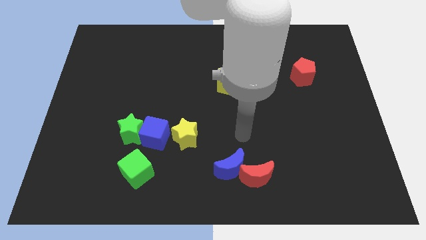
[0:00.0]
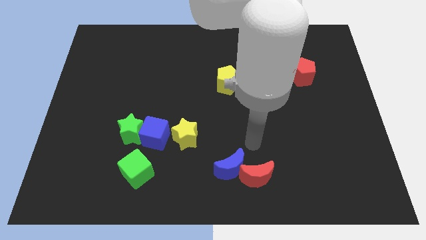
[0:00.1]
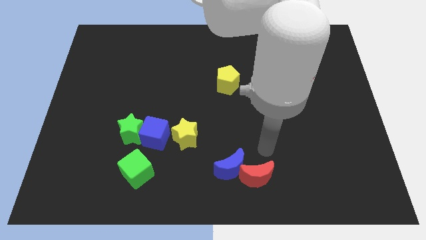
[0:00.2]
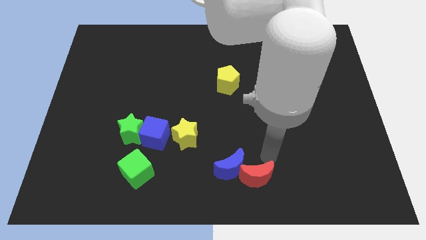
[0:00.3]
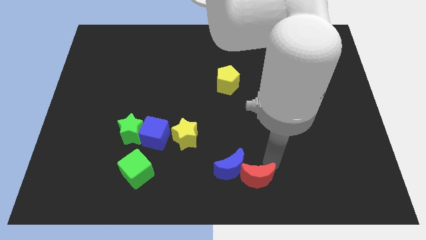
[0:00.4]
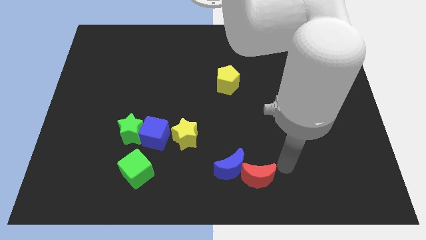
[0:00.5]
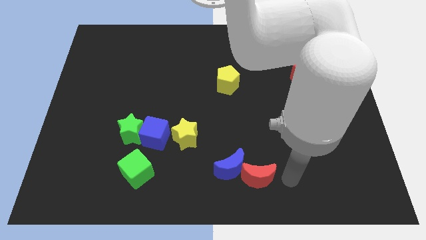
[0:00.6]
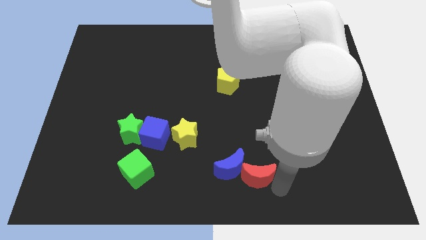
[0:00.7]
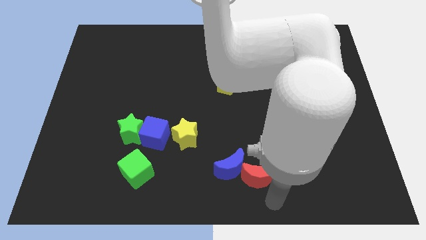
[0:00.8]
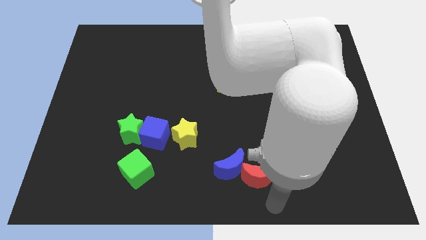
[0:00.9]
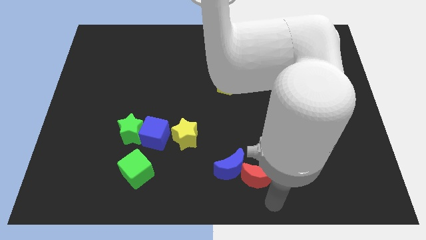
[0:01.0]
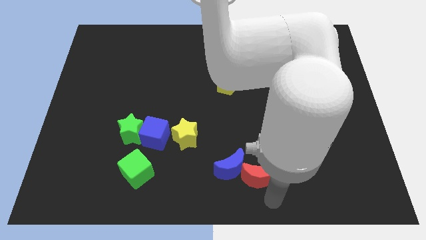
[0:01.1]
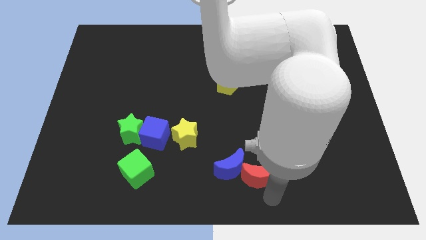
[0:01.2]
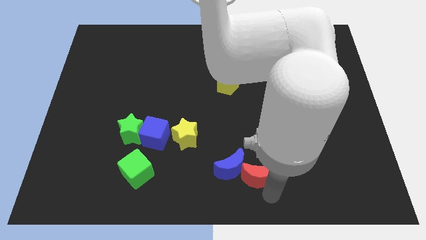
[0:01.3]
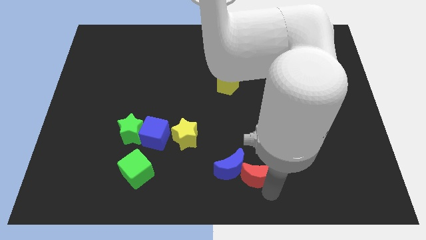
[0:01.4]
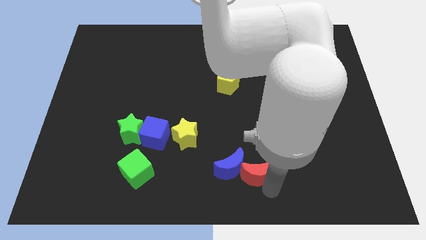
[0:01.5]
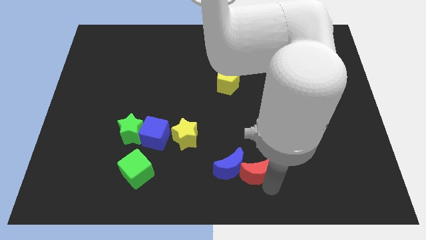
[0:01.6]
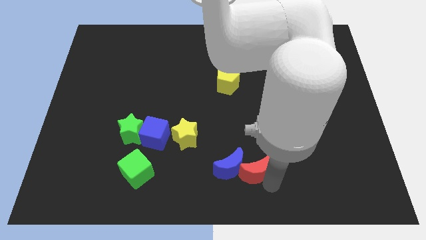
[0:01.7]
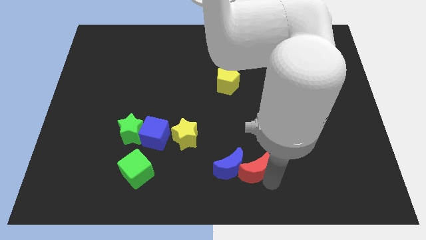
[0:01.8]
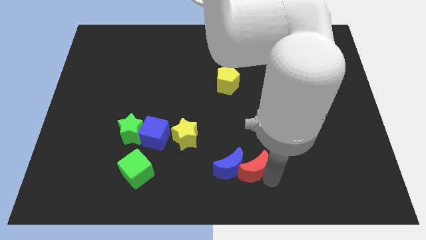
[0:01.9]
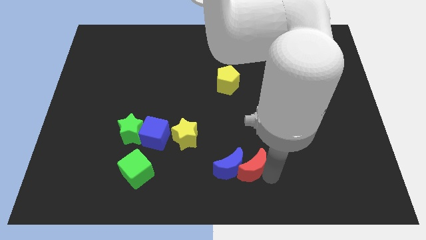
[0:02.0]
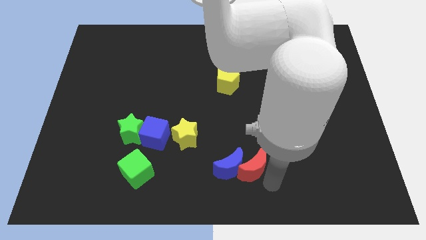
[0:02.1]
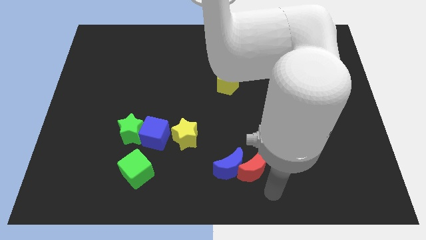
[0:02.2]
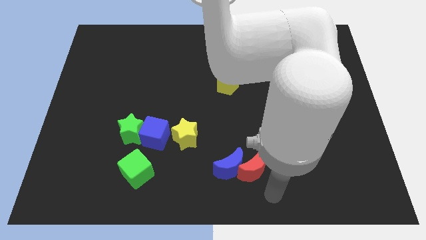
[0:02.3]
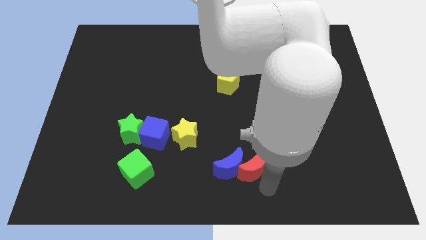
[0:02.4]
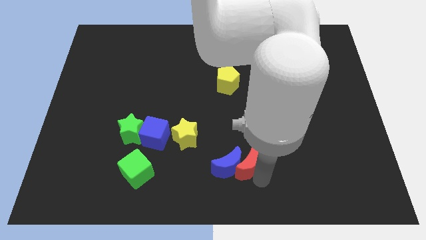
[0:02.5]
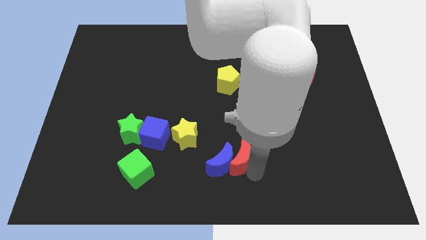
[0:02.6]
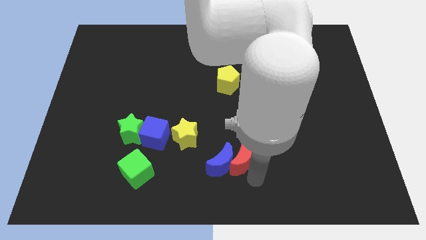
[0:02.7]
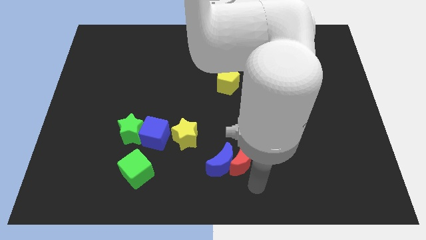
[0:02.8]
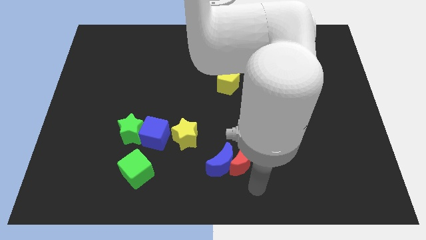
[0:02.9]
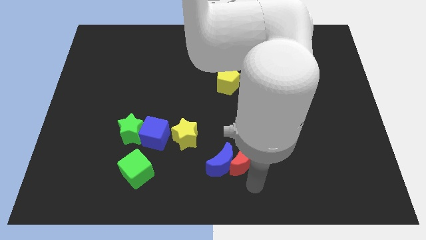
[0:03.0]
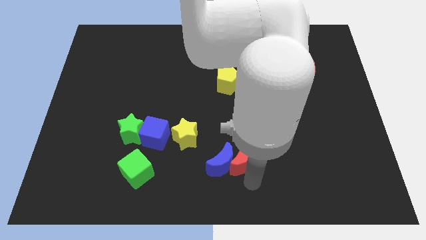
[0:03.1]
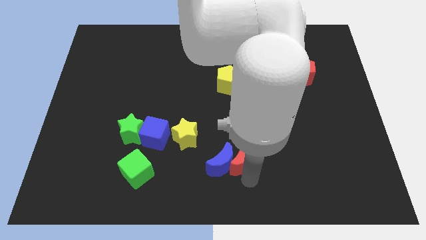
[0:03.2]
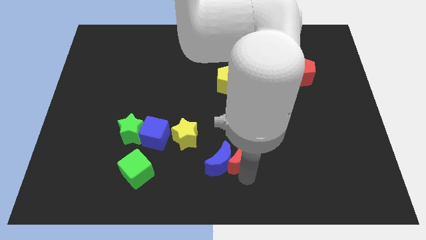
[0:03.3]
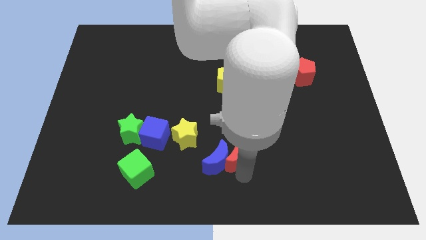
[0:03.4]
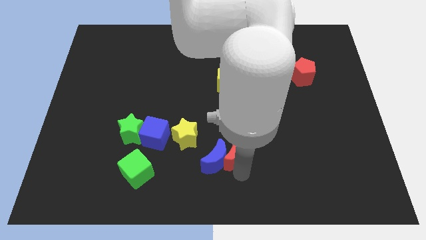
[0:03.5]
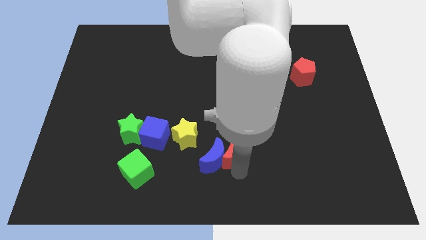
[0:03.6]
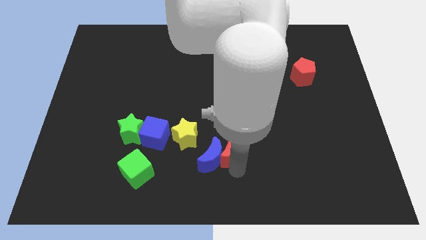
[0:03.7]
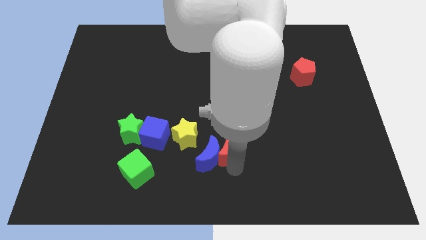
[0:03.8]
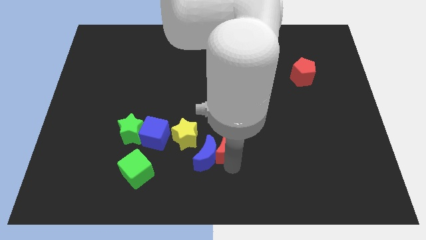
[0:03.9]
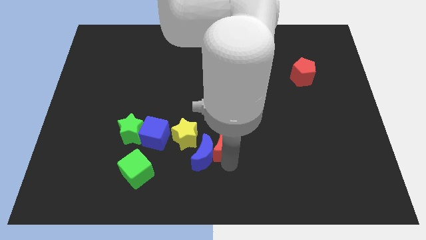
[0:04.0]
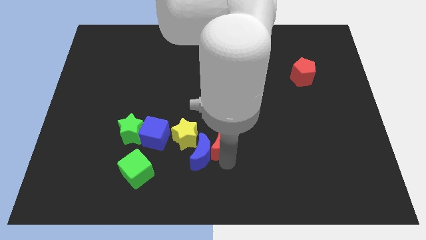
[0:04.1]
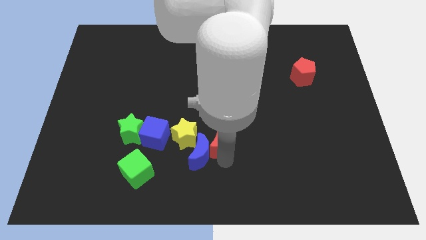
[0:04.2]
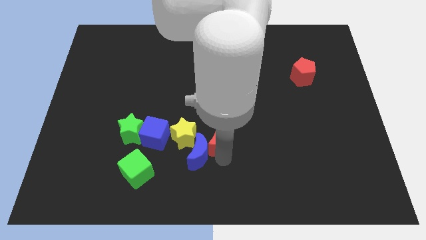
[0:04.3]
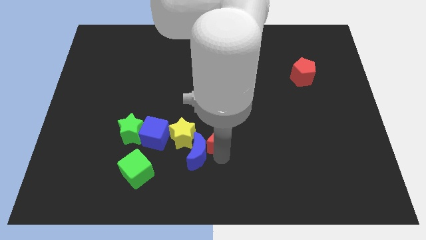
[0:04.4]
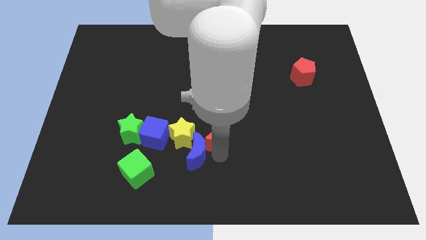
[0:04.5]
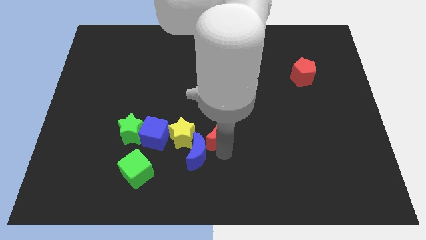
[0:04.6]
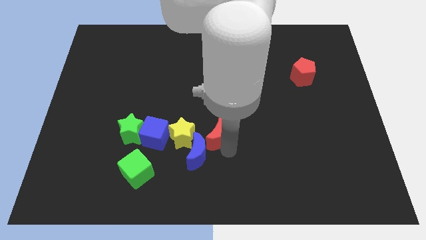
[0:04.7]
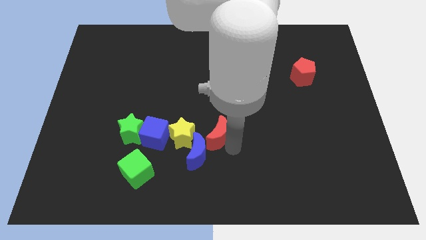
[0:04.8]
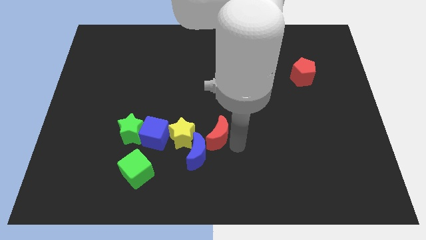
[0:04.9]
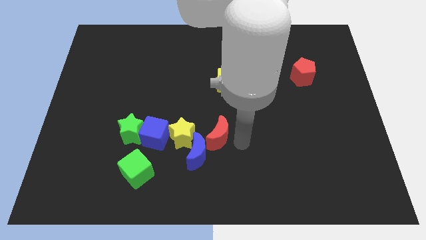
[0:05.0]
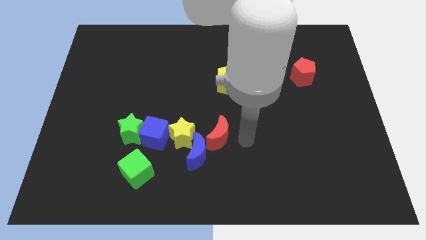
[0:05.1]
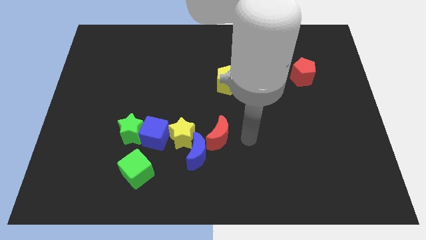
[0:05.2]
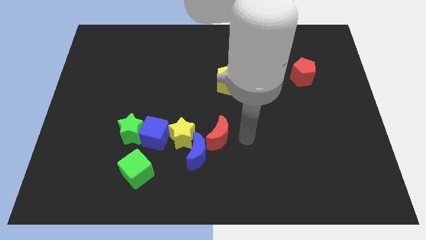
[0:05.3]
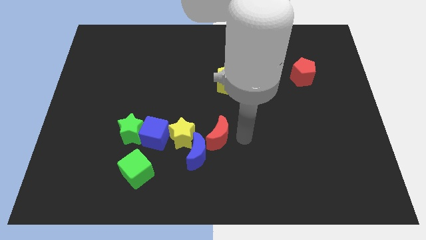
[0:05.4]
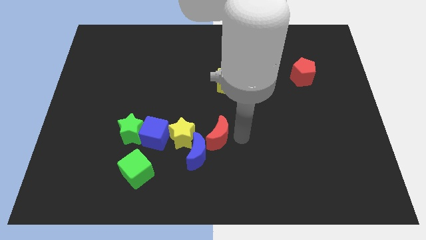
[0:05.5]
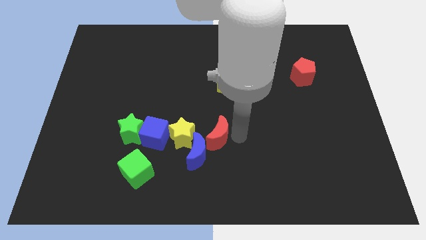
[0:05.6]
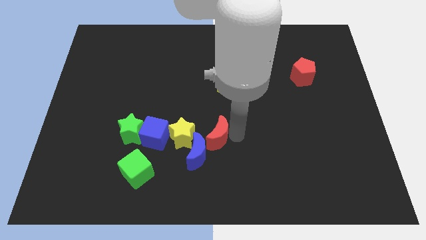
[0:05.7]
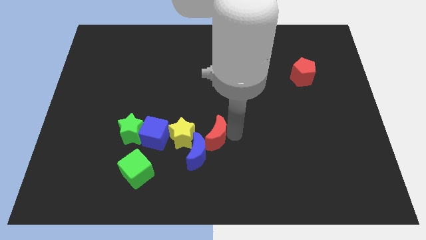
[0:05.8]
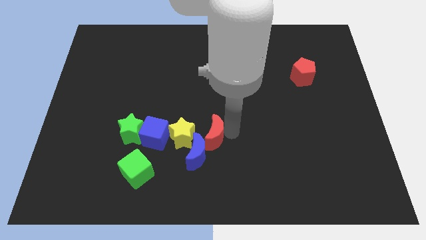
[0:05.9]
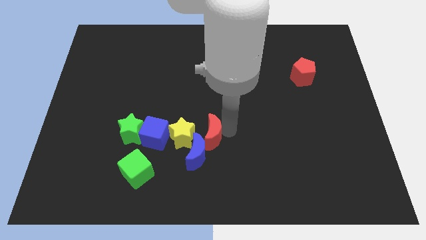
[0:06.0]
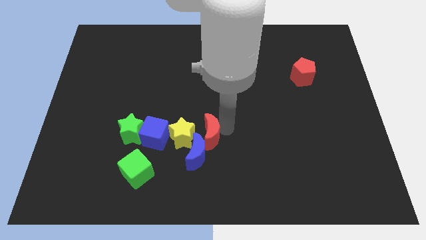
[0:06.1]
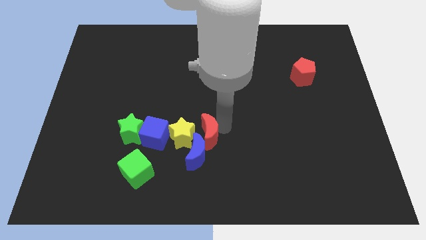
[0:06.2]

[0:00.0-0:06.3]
move the red moon towards the yellow star

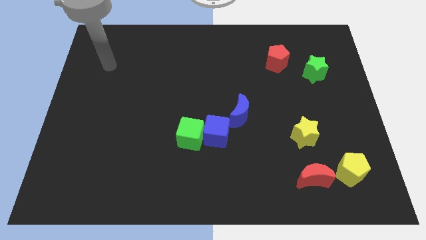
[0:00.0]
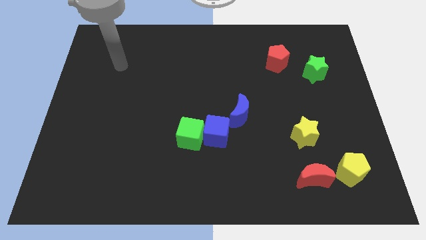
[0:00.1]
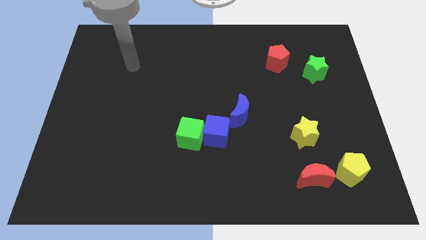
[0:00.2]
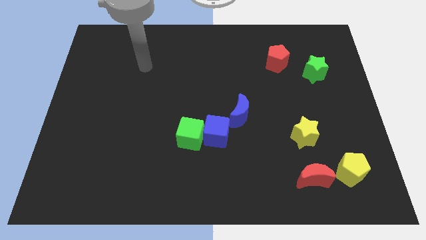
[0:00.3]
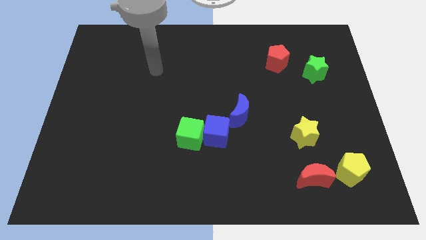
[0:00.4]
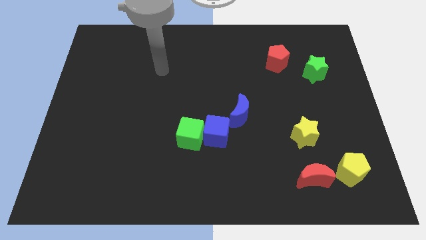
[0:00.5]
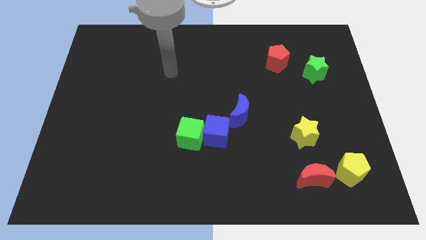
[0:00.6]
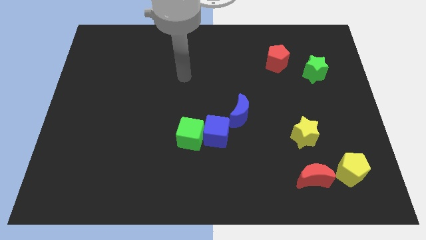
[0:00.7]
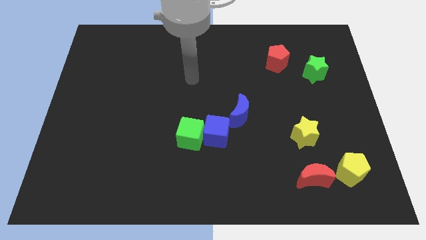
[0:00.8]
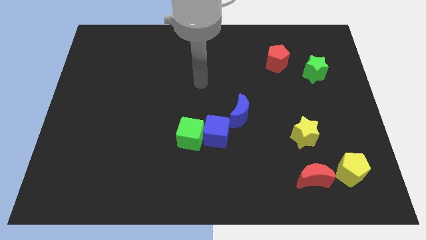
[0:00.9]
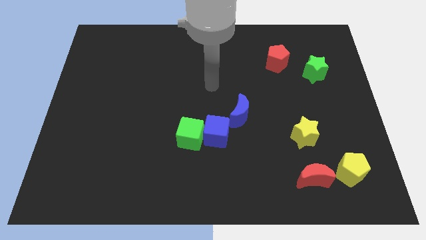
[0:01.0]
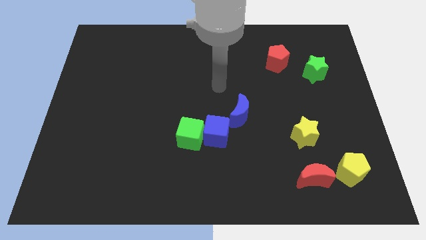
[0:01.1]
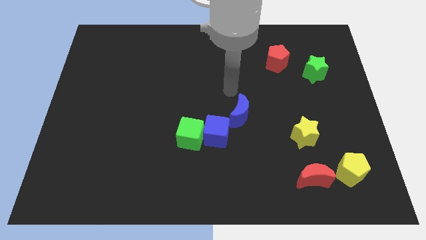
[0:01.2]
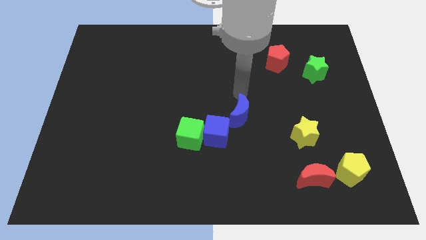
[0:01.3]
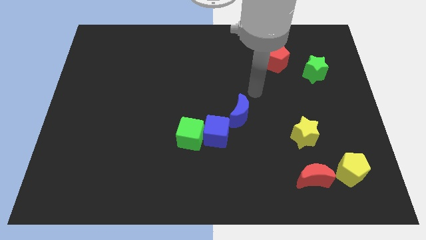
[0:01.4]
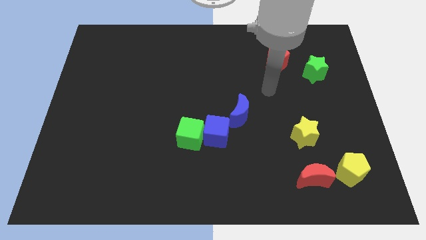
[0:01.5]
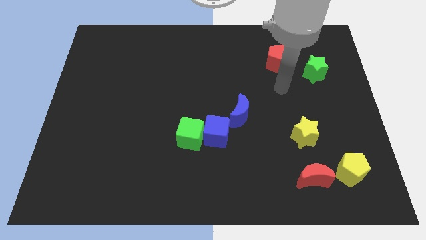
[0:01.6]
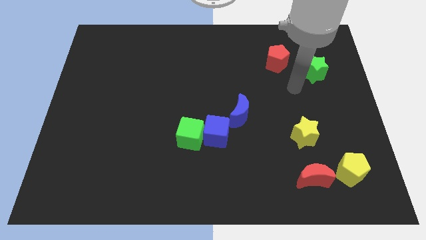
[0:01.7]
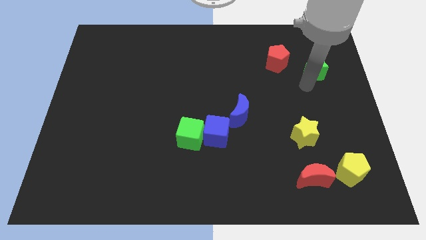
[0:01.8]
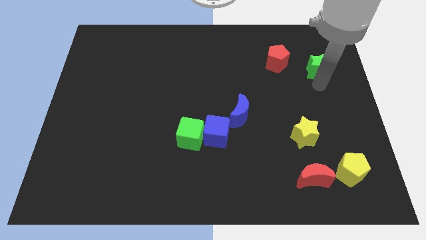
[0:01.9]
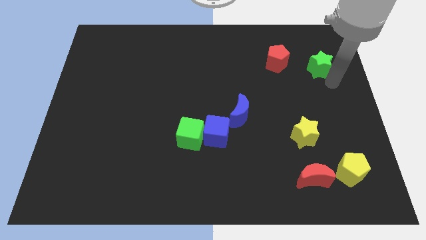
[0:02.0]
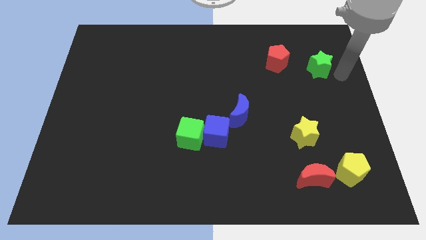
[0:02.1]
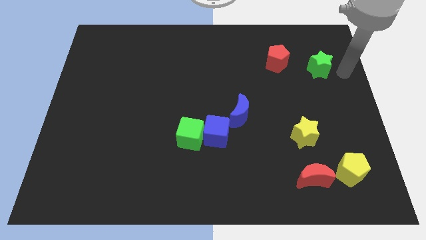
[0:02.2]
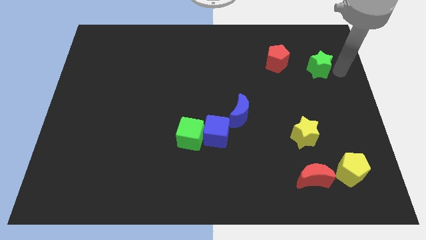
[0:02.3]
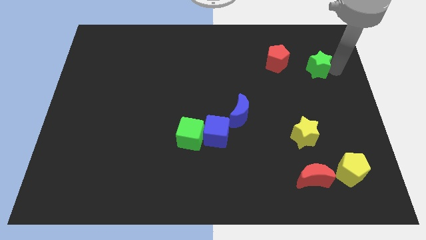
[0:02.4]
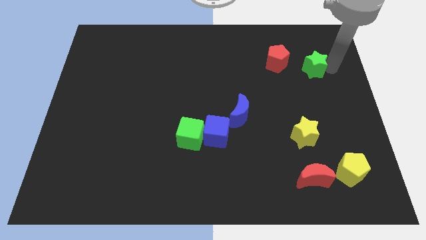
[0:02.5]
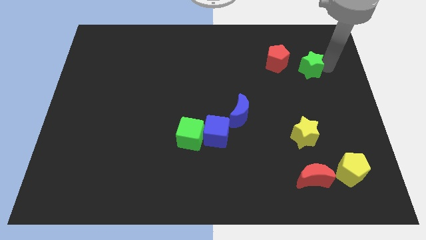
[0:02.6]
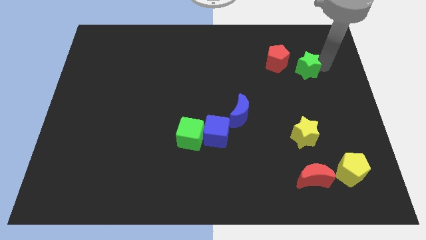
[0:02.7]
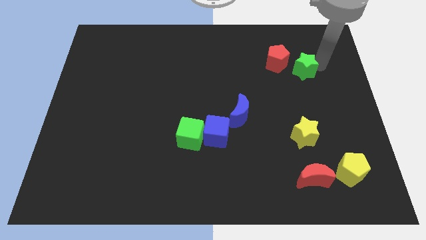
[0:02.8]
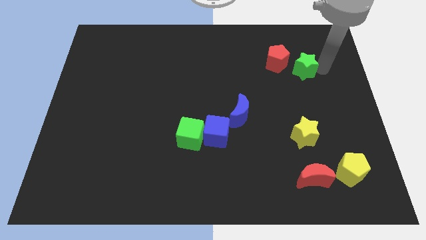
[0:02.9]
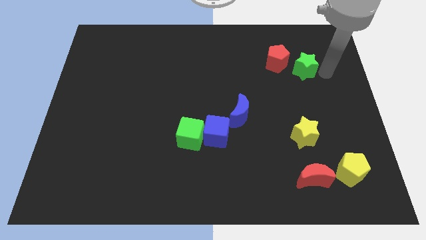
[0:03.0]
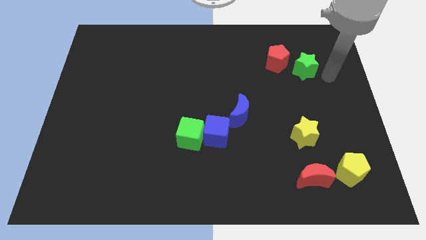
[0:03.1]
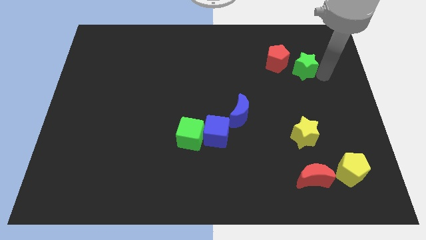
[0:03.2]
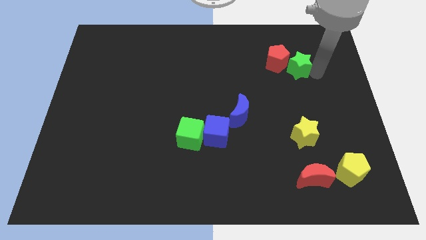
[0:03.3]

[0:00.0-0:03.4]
slide the green star to the red pentagon
